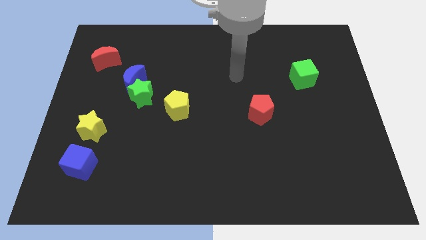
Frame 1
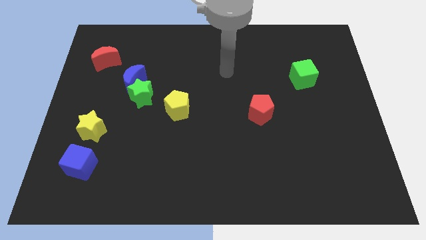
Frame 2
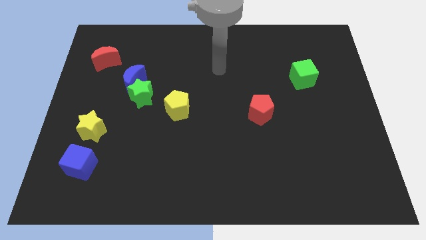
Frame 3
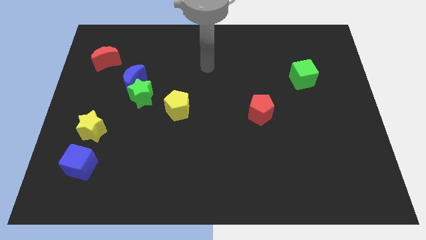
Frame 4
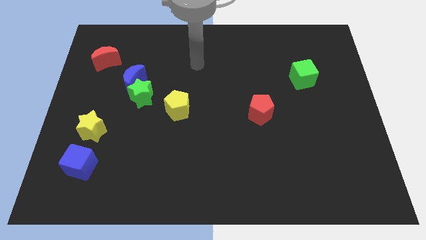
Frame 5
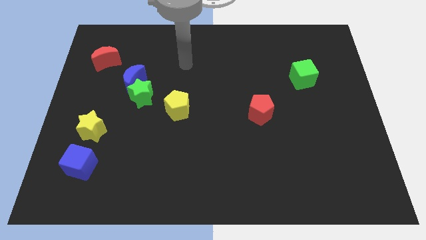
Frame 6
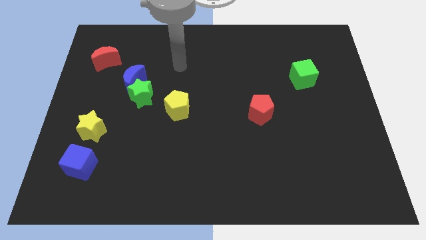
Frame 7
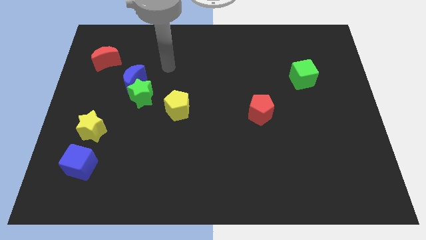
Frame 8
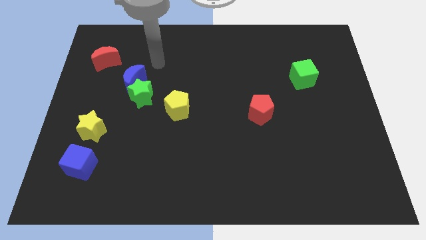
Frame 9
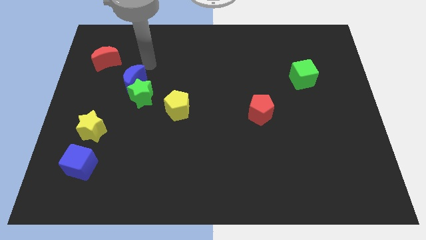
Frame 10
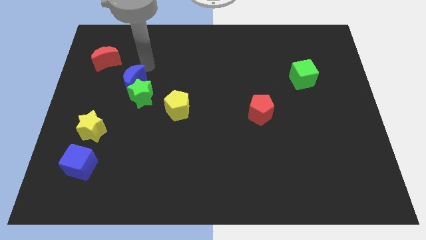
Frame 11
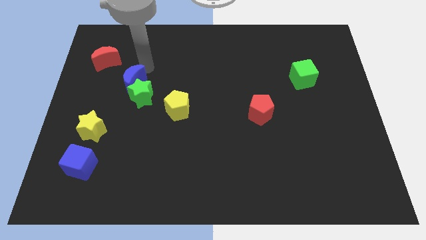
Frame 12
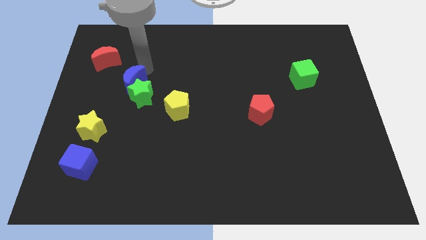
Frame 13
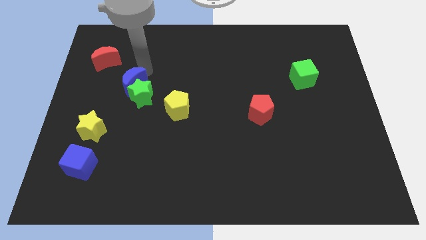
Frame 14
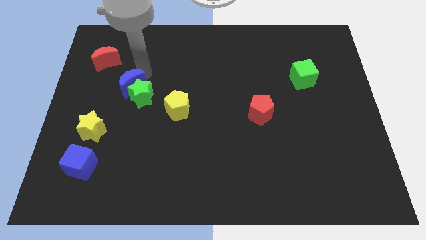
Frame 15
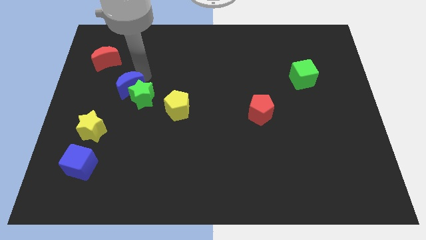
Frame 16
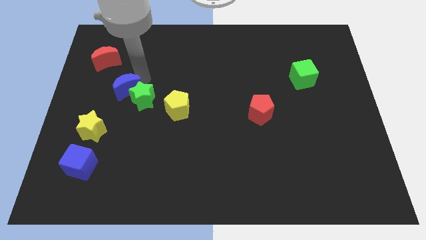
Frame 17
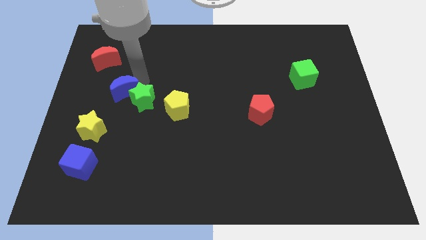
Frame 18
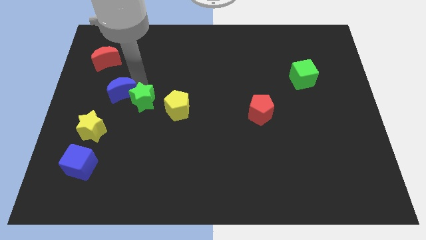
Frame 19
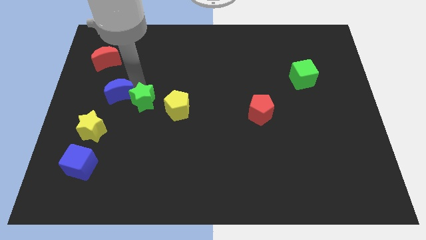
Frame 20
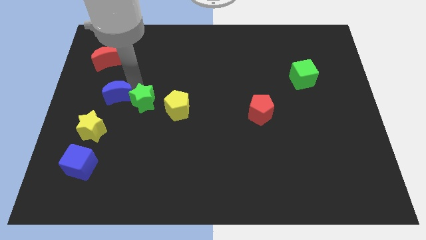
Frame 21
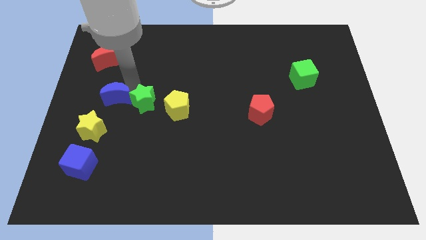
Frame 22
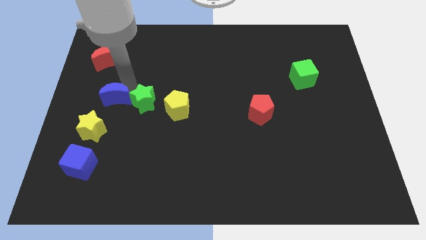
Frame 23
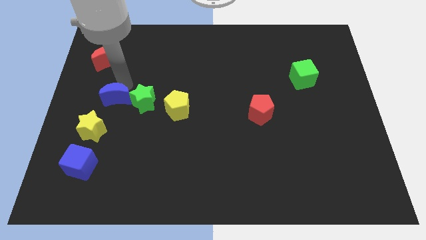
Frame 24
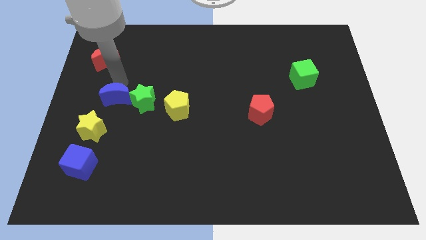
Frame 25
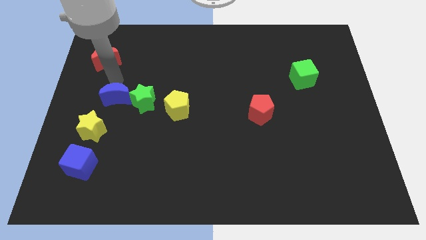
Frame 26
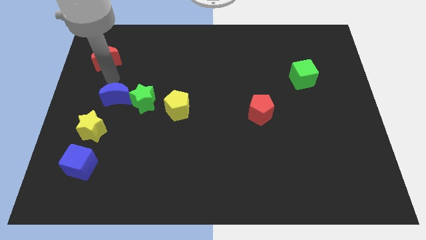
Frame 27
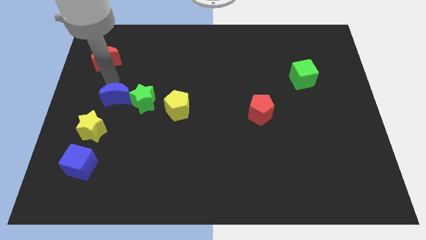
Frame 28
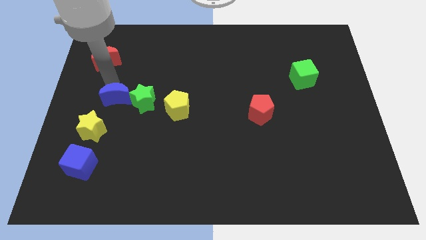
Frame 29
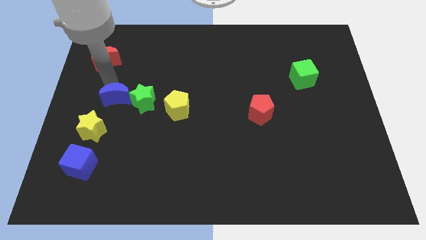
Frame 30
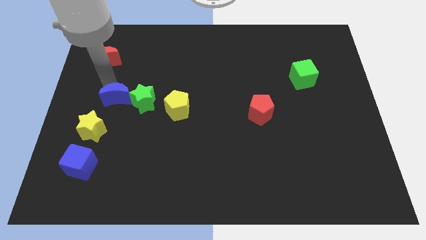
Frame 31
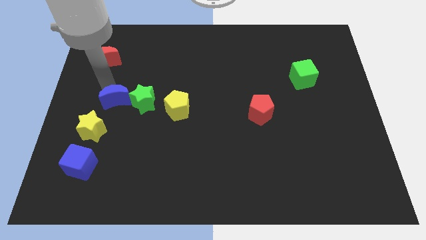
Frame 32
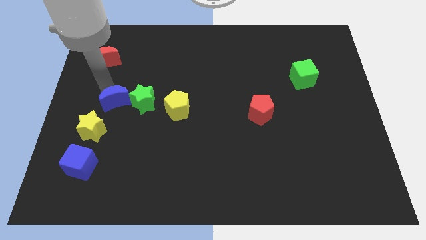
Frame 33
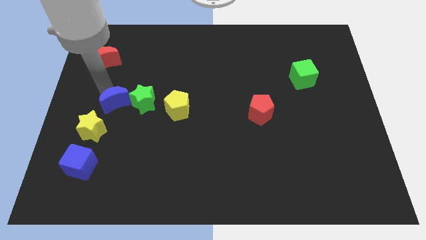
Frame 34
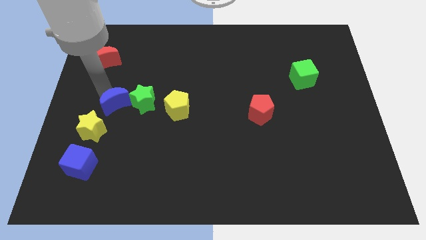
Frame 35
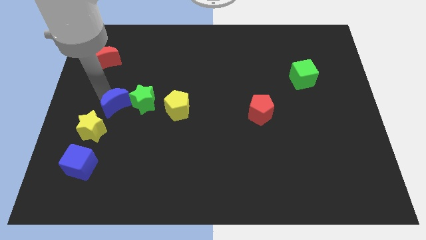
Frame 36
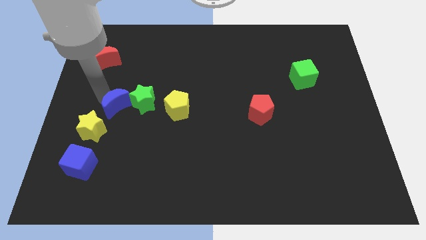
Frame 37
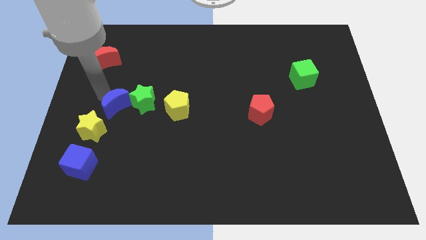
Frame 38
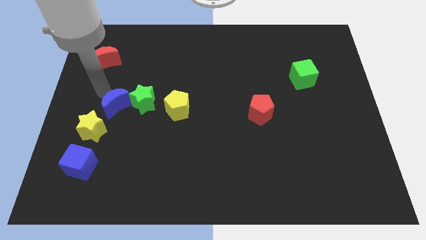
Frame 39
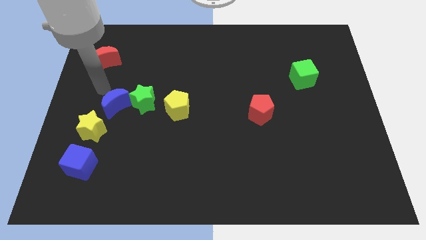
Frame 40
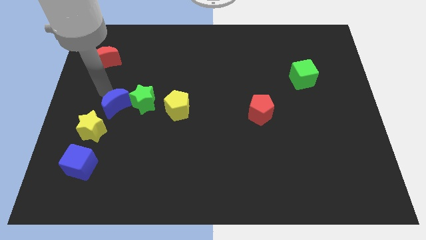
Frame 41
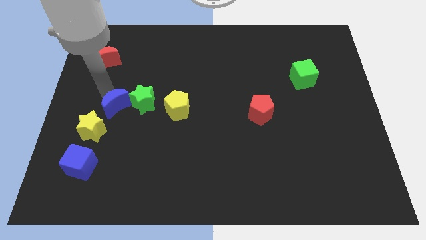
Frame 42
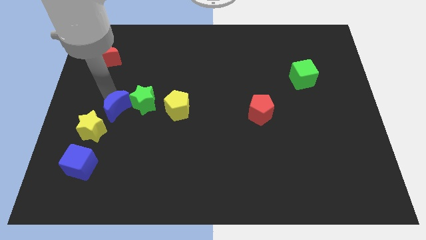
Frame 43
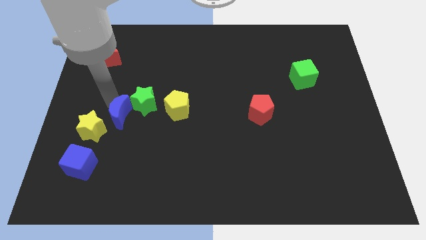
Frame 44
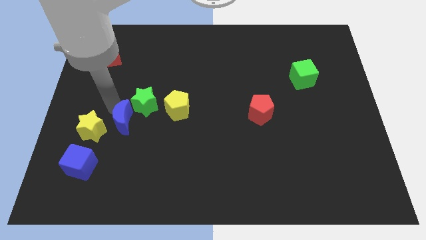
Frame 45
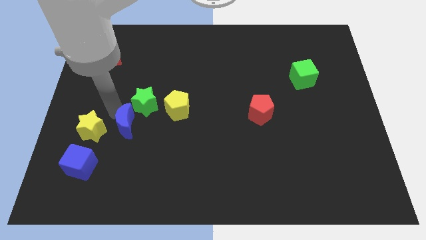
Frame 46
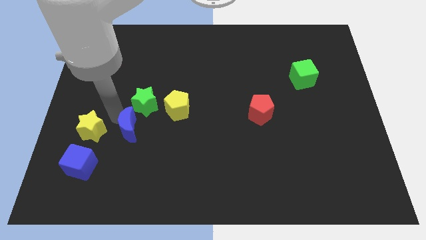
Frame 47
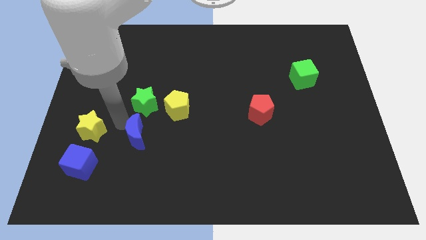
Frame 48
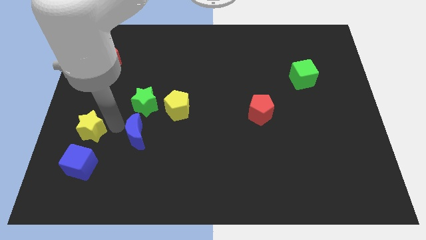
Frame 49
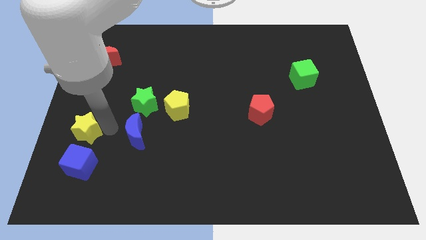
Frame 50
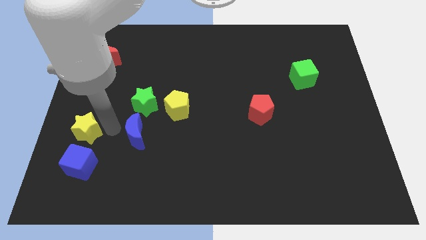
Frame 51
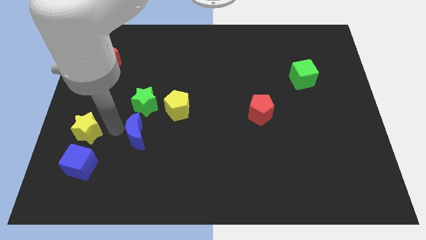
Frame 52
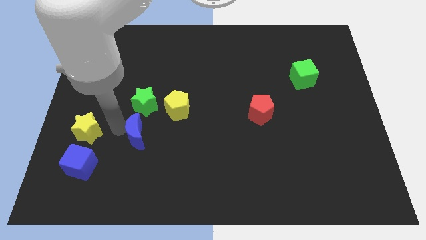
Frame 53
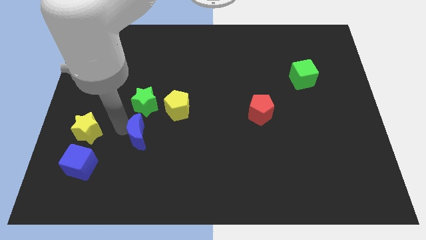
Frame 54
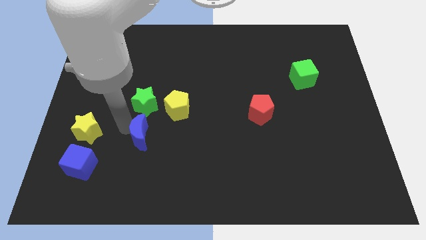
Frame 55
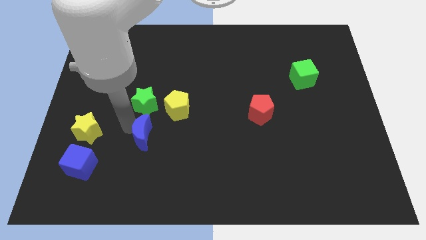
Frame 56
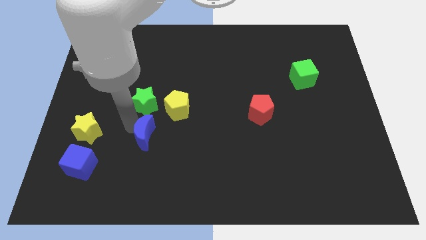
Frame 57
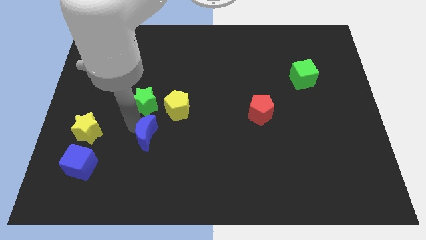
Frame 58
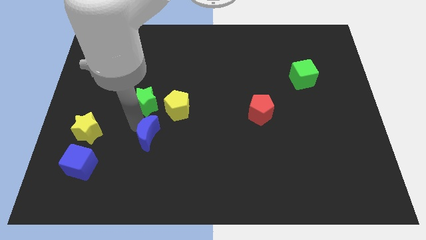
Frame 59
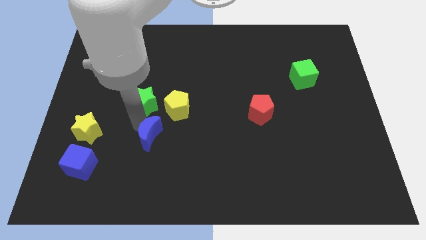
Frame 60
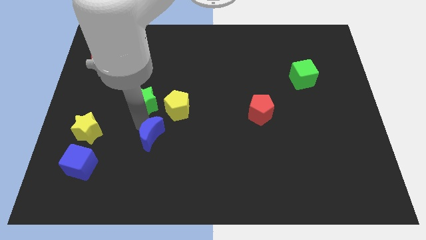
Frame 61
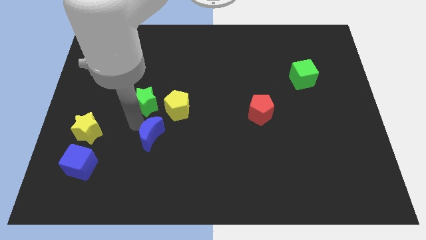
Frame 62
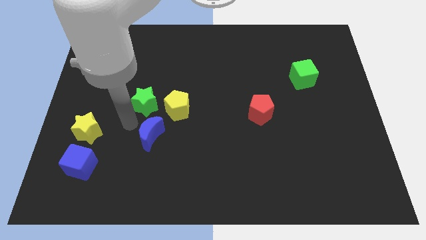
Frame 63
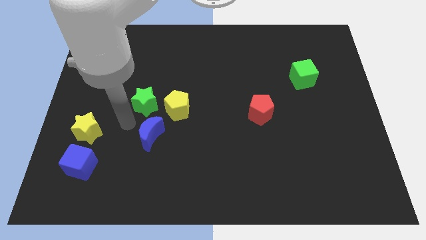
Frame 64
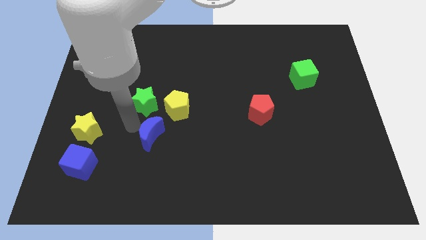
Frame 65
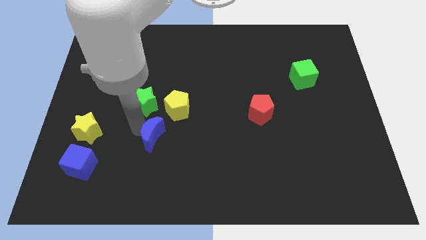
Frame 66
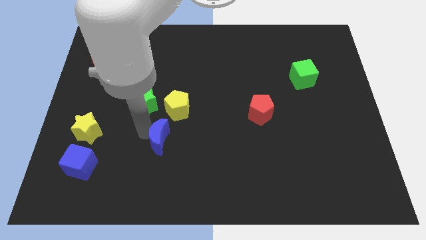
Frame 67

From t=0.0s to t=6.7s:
put the blue moon to the bottom of the yellow pentagon

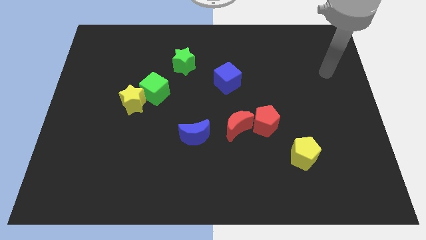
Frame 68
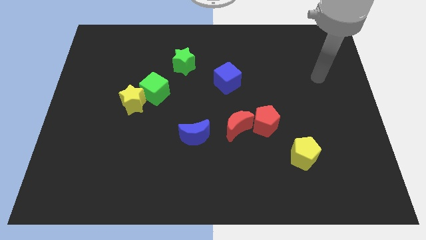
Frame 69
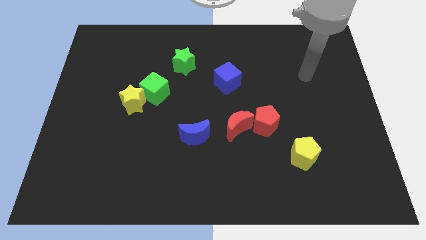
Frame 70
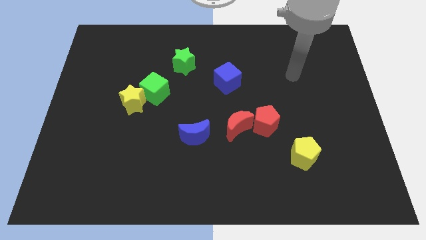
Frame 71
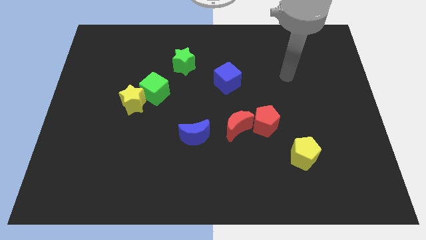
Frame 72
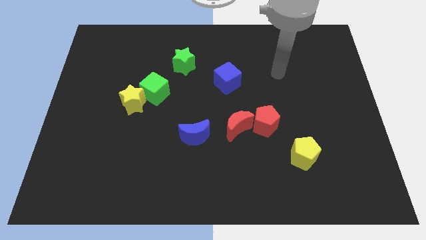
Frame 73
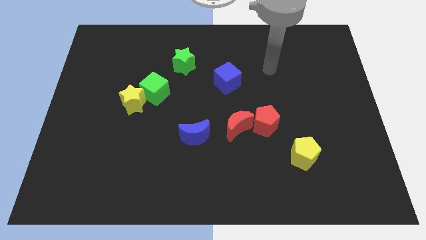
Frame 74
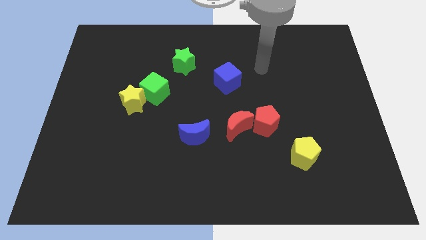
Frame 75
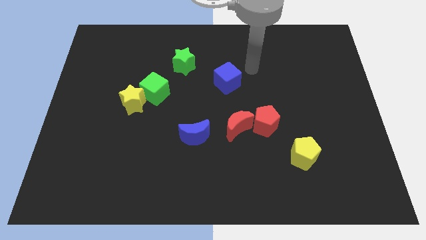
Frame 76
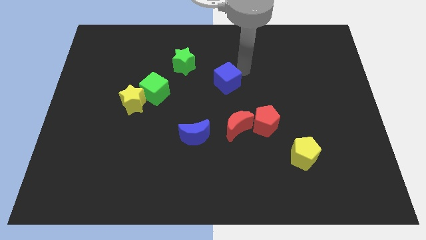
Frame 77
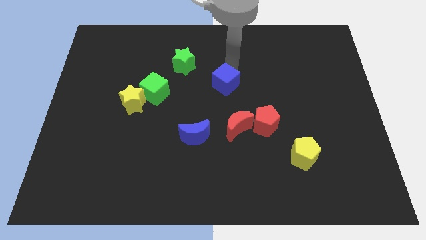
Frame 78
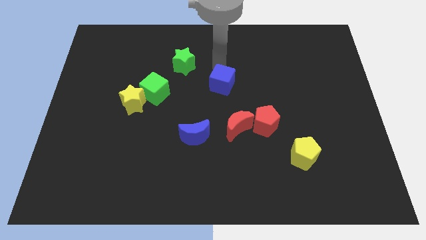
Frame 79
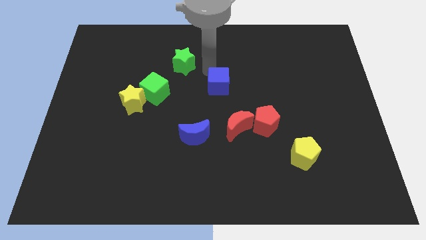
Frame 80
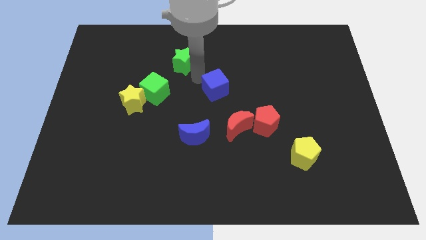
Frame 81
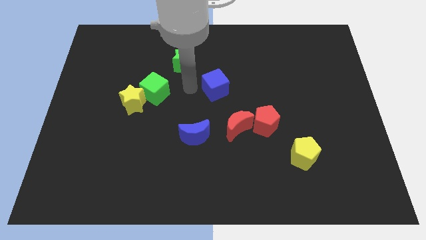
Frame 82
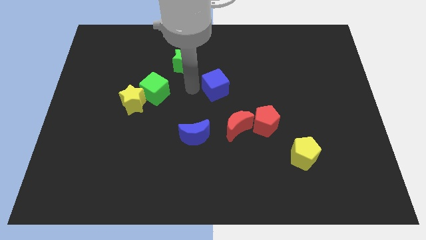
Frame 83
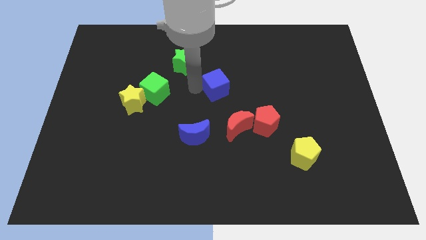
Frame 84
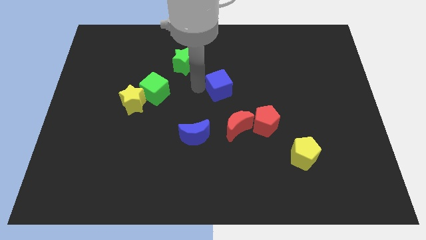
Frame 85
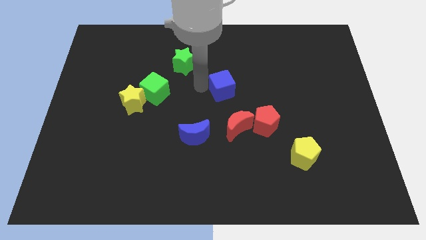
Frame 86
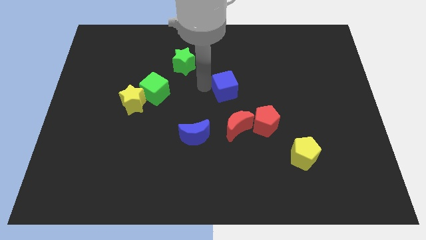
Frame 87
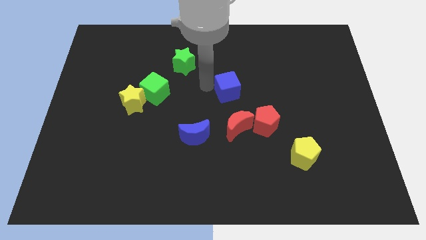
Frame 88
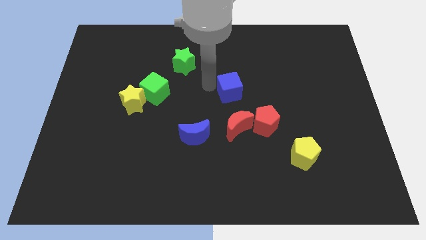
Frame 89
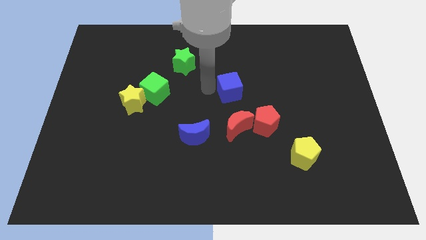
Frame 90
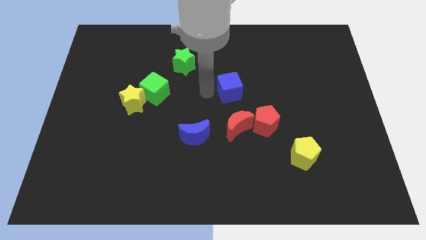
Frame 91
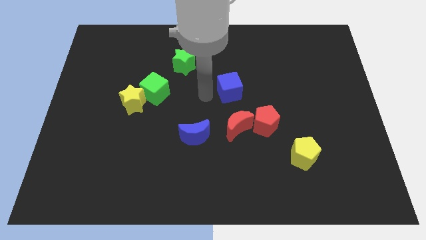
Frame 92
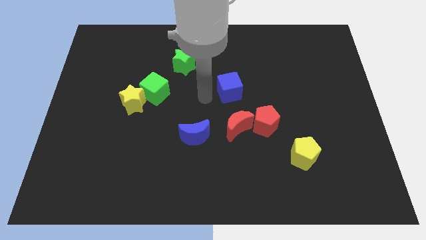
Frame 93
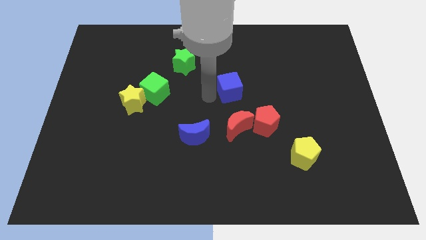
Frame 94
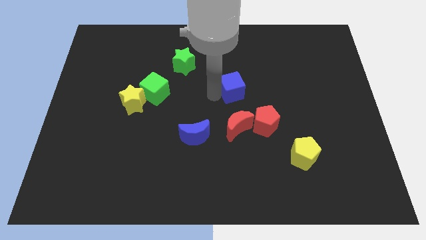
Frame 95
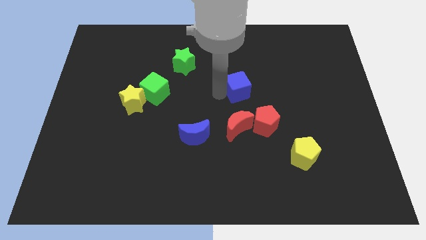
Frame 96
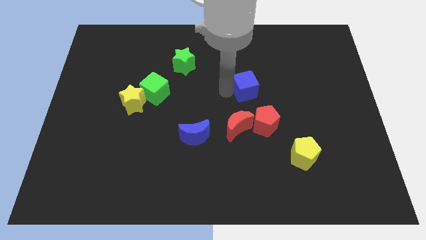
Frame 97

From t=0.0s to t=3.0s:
push the blue cube to the top of the red pentagon
